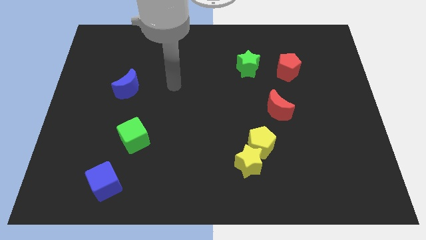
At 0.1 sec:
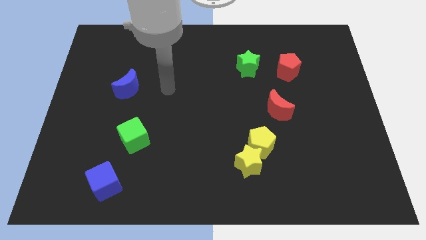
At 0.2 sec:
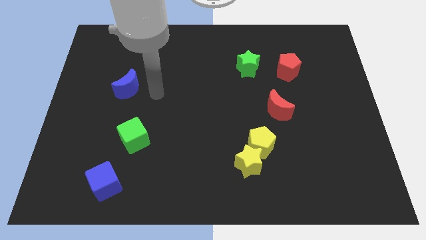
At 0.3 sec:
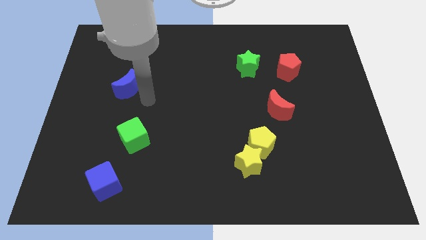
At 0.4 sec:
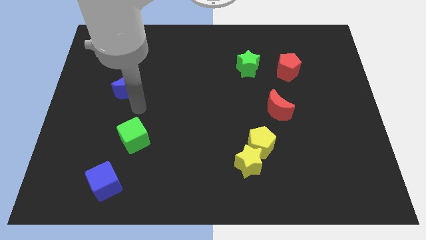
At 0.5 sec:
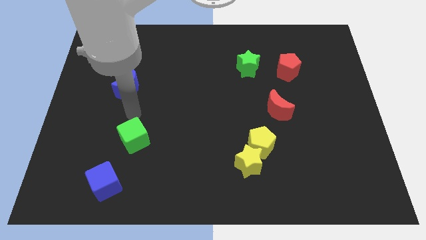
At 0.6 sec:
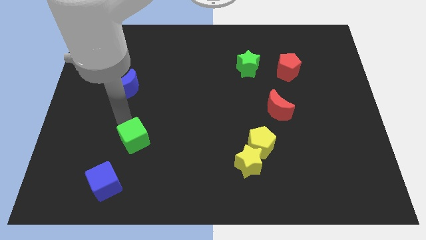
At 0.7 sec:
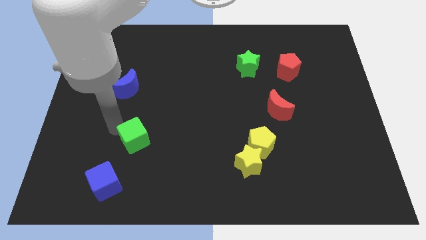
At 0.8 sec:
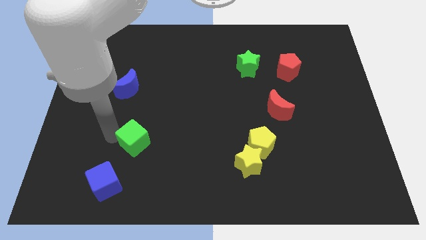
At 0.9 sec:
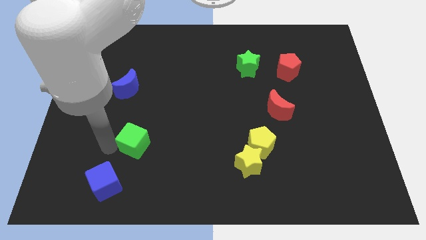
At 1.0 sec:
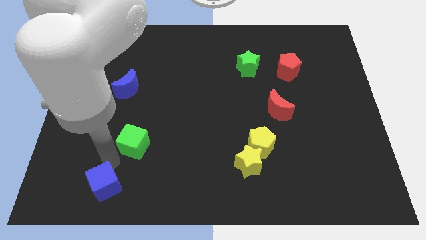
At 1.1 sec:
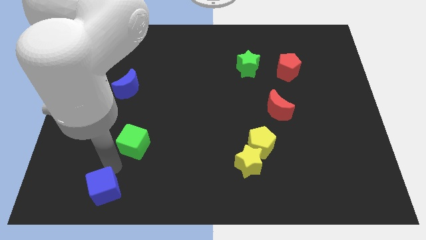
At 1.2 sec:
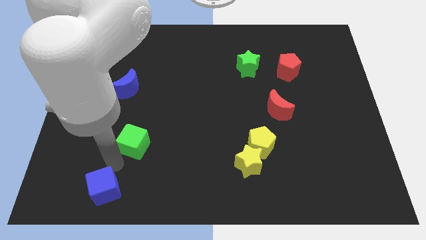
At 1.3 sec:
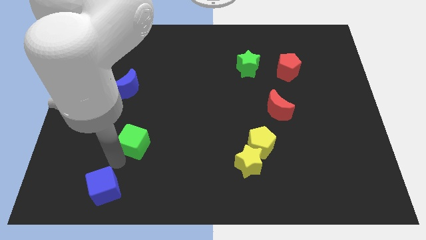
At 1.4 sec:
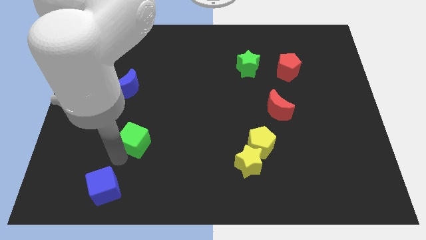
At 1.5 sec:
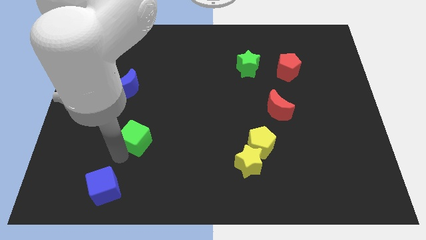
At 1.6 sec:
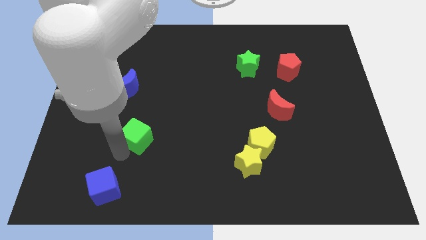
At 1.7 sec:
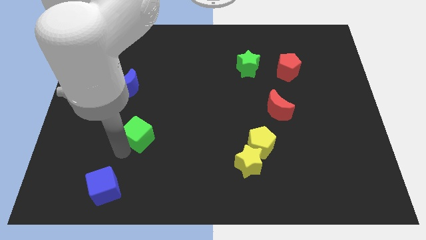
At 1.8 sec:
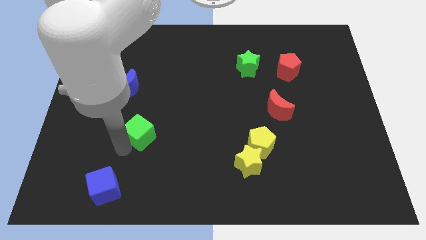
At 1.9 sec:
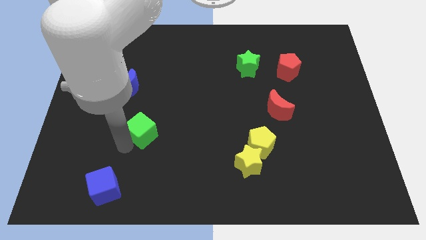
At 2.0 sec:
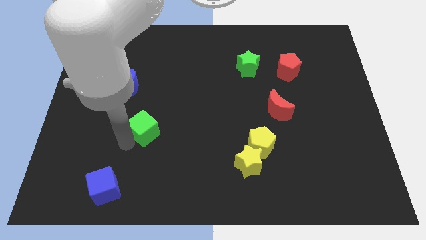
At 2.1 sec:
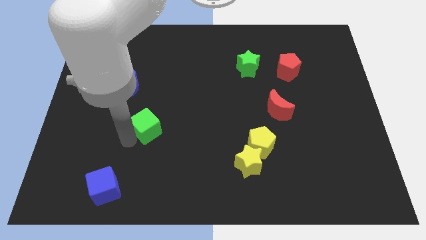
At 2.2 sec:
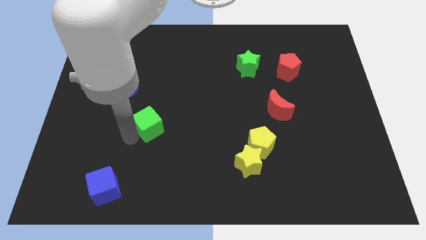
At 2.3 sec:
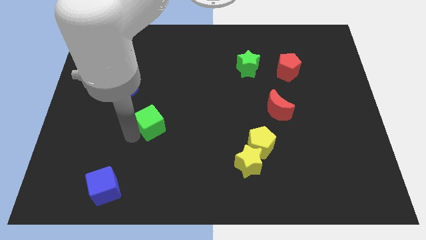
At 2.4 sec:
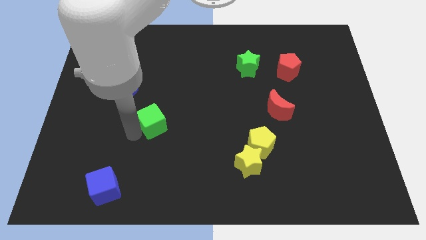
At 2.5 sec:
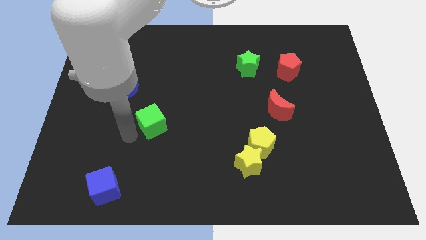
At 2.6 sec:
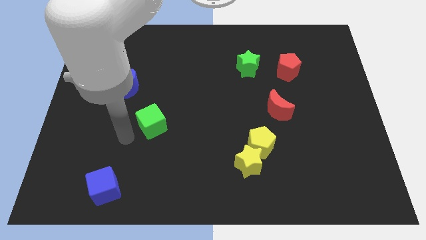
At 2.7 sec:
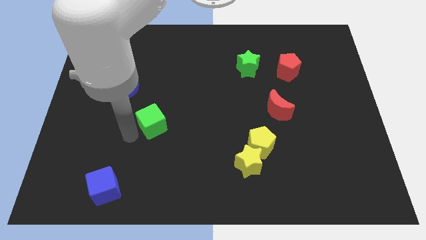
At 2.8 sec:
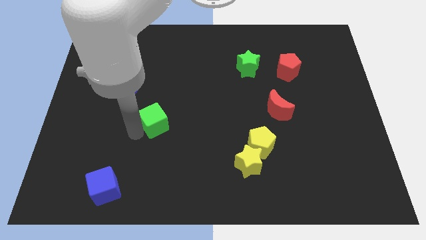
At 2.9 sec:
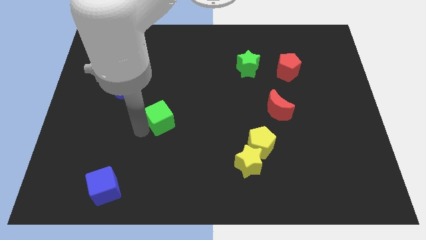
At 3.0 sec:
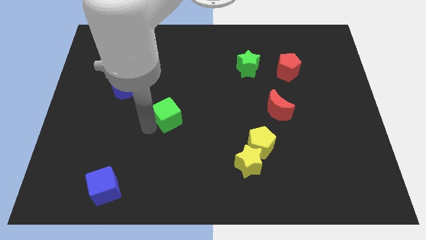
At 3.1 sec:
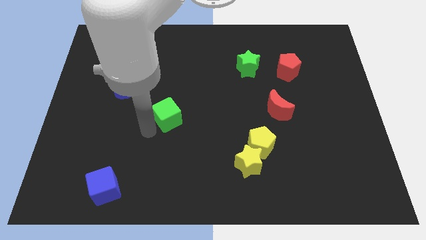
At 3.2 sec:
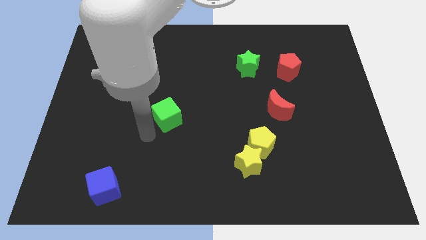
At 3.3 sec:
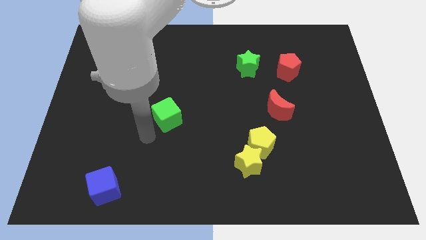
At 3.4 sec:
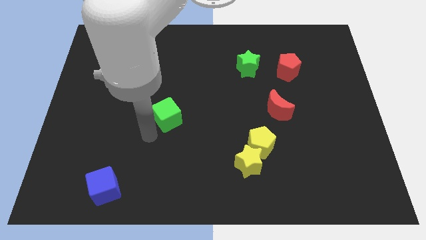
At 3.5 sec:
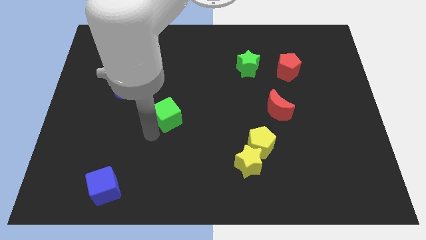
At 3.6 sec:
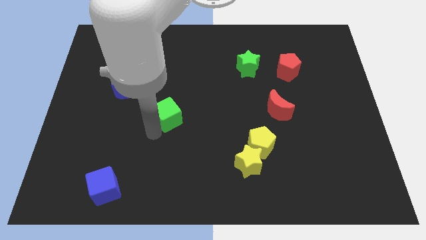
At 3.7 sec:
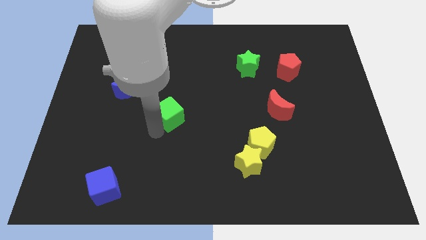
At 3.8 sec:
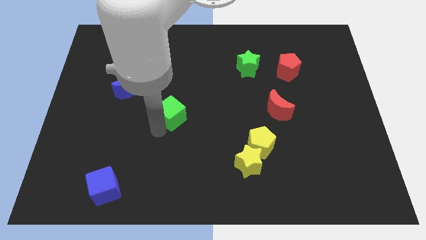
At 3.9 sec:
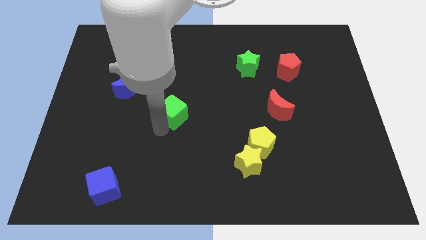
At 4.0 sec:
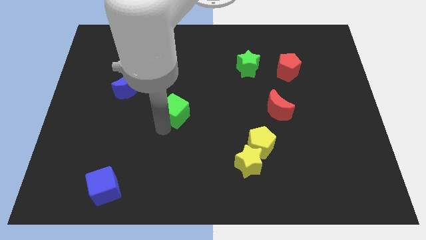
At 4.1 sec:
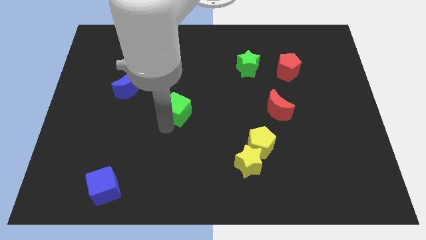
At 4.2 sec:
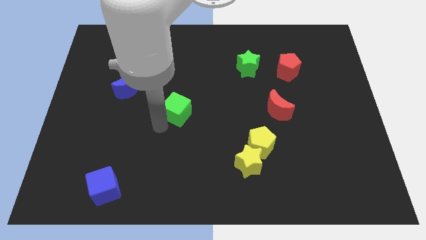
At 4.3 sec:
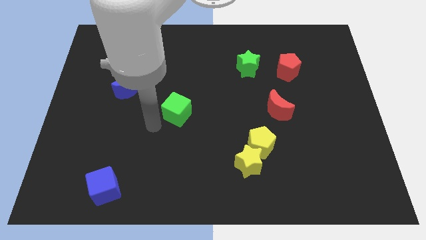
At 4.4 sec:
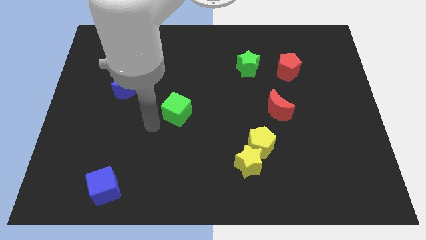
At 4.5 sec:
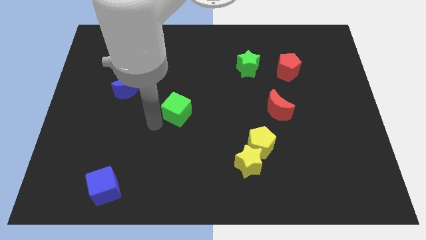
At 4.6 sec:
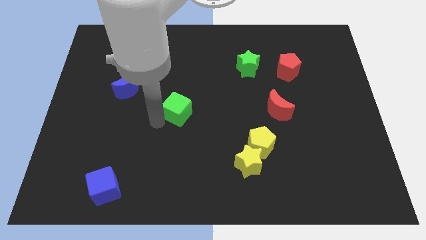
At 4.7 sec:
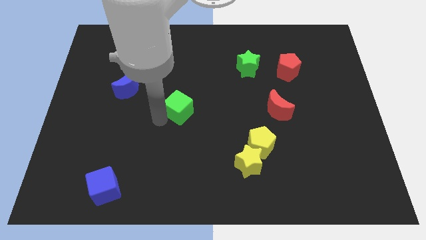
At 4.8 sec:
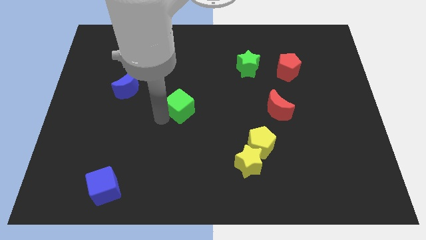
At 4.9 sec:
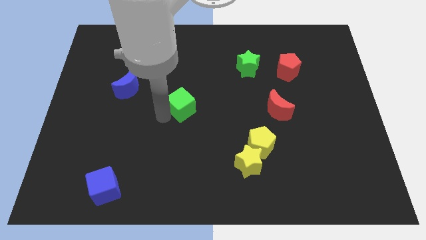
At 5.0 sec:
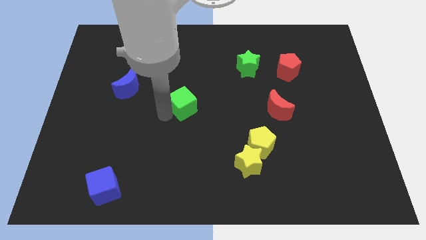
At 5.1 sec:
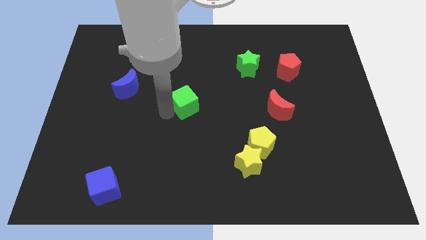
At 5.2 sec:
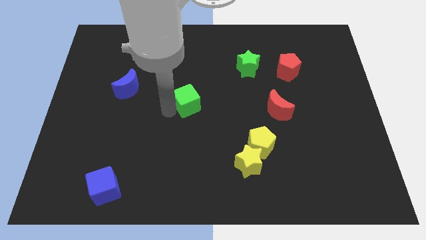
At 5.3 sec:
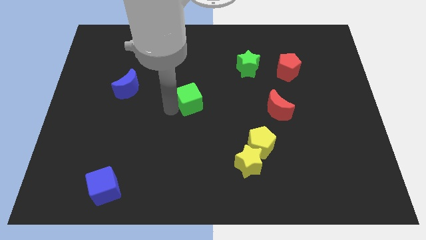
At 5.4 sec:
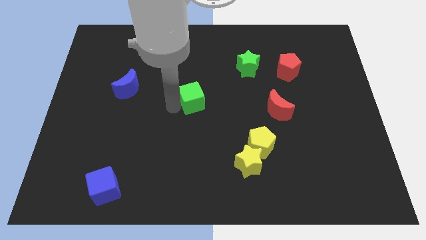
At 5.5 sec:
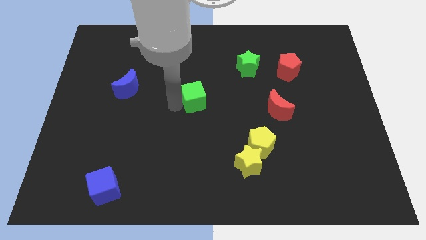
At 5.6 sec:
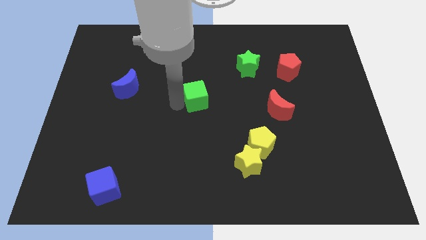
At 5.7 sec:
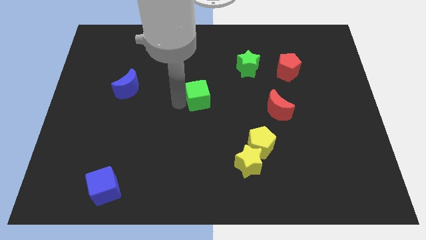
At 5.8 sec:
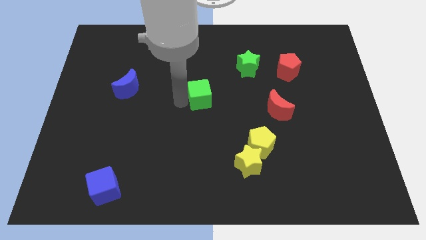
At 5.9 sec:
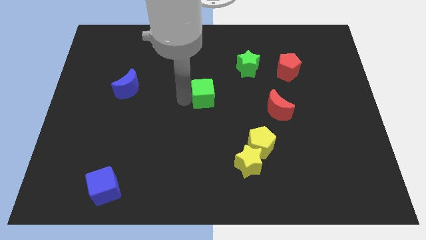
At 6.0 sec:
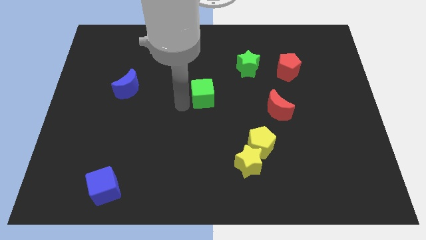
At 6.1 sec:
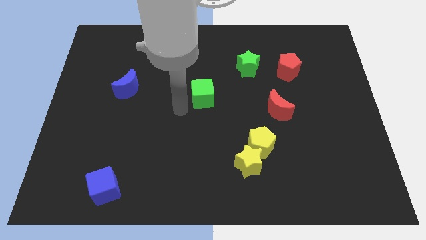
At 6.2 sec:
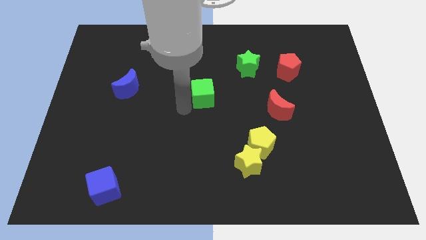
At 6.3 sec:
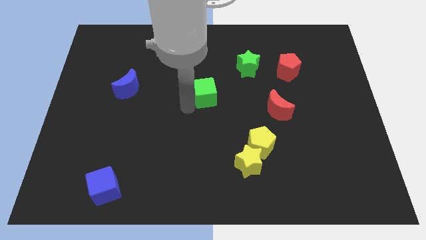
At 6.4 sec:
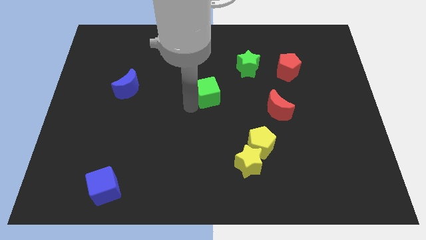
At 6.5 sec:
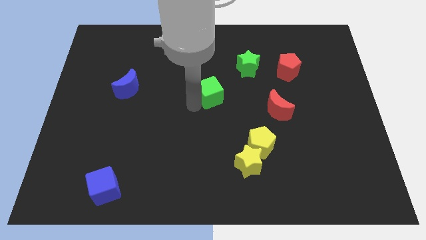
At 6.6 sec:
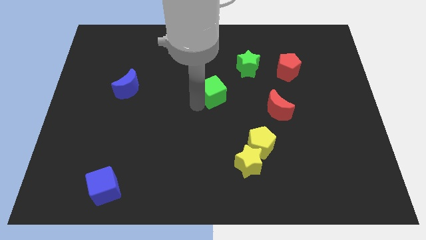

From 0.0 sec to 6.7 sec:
push the green cube to the bottom left of the green star

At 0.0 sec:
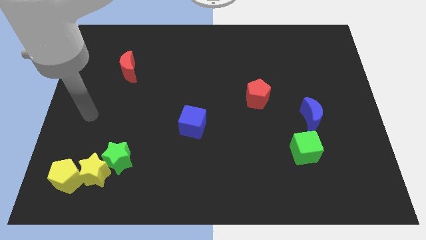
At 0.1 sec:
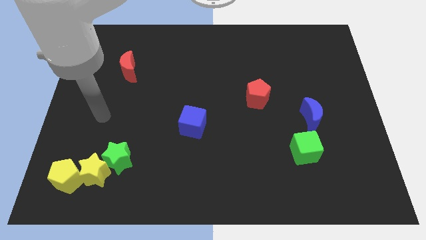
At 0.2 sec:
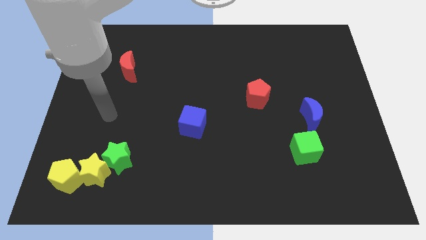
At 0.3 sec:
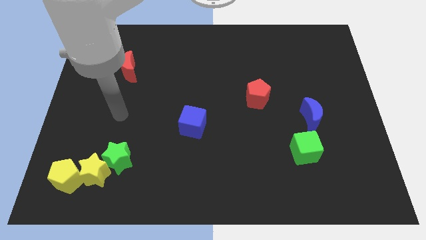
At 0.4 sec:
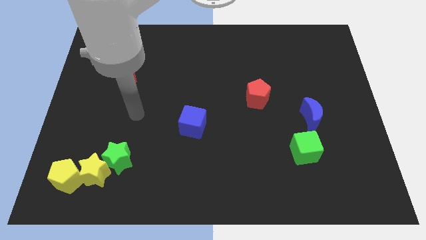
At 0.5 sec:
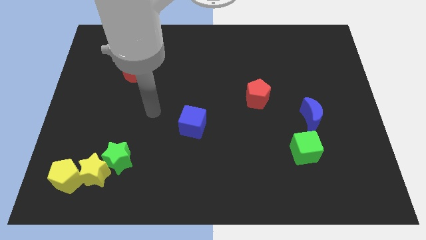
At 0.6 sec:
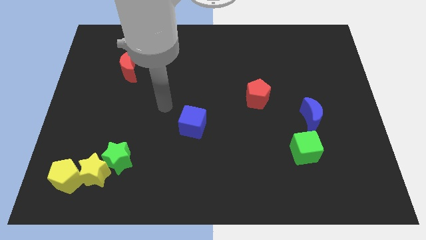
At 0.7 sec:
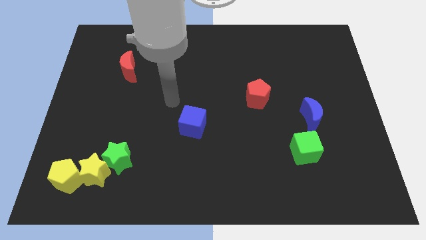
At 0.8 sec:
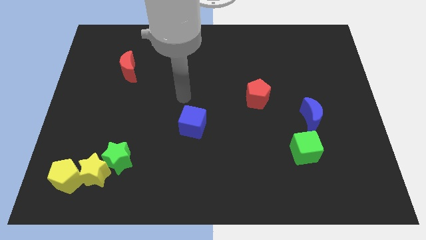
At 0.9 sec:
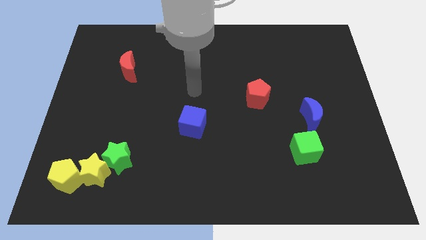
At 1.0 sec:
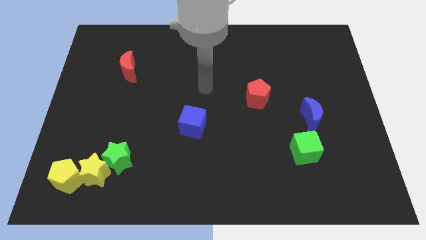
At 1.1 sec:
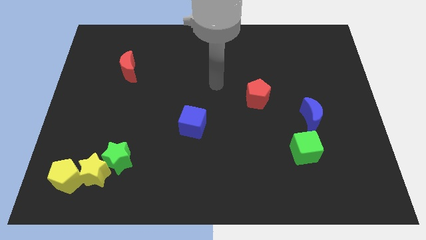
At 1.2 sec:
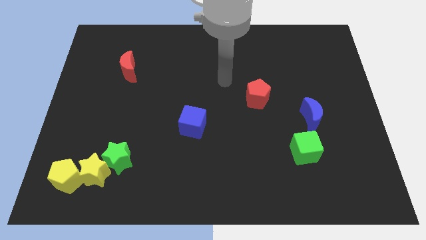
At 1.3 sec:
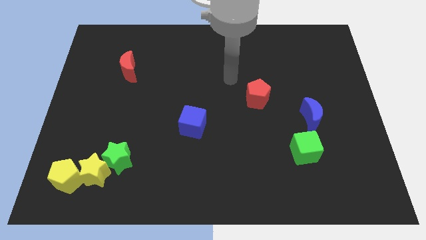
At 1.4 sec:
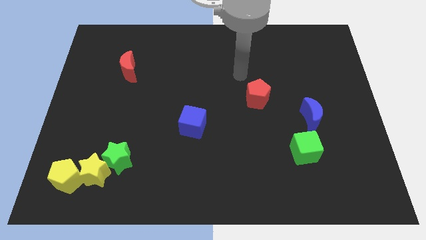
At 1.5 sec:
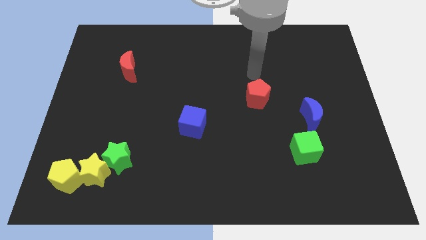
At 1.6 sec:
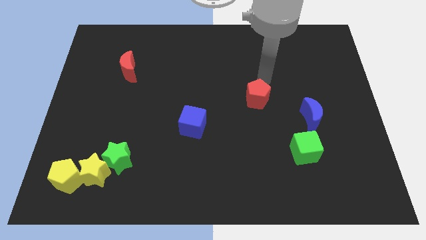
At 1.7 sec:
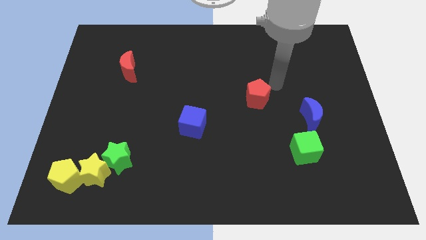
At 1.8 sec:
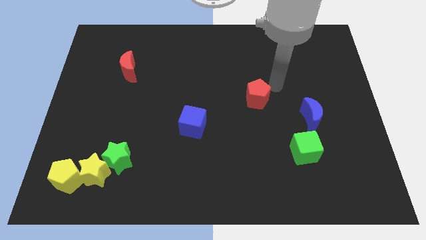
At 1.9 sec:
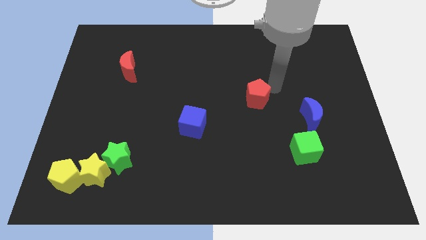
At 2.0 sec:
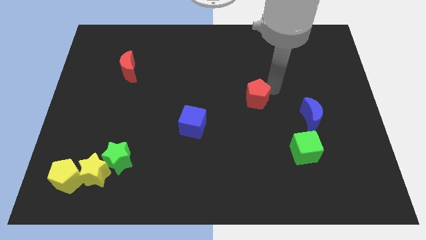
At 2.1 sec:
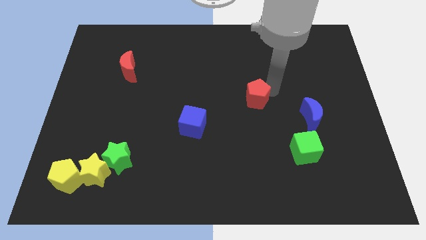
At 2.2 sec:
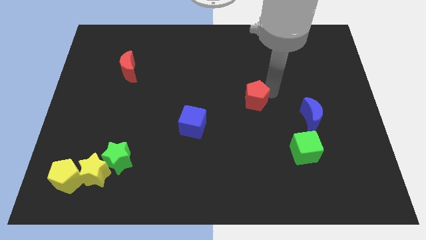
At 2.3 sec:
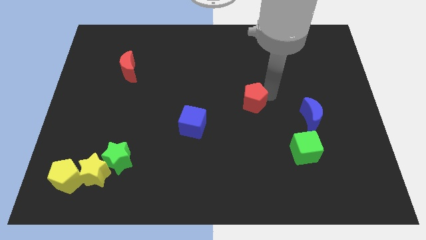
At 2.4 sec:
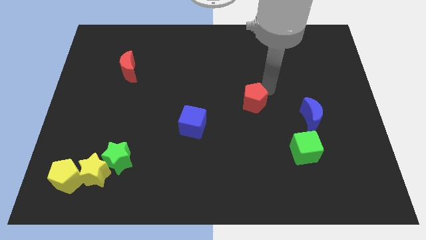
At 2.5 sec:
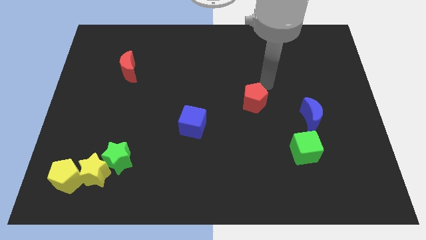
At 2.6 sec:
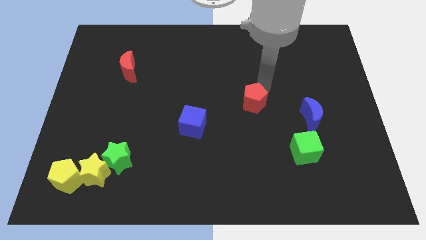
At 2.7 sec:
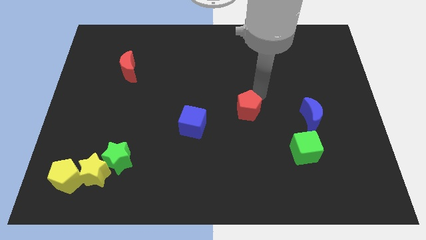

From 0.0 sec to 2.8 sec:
move the red pentagon right of the blue cube
